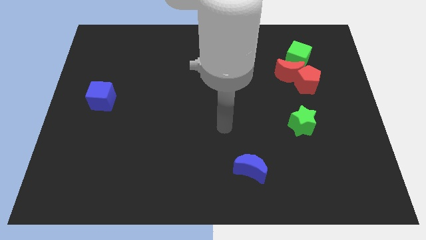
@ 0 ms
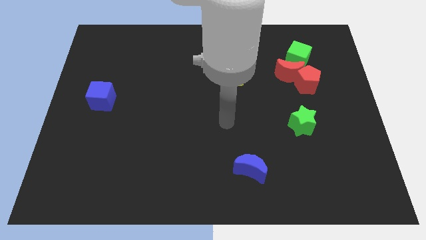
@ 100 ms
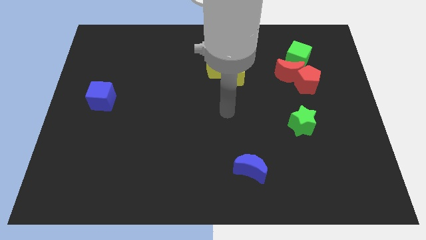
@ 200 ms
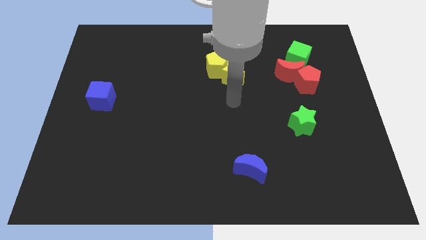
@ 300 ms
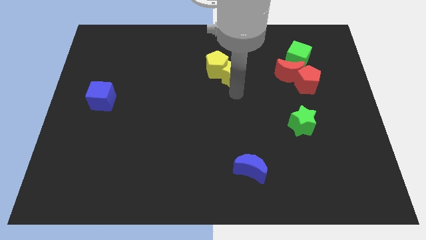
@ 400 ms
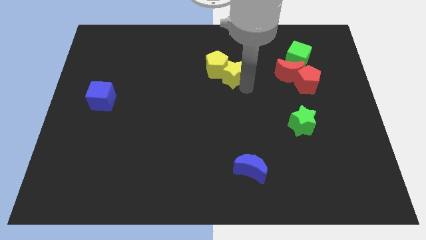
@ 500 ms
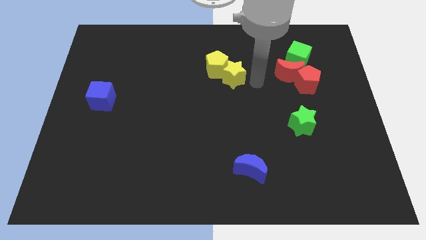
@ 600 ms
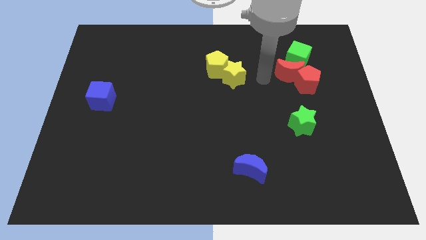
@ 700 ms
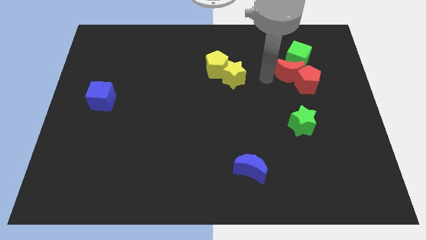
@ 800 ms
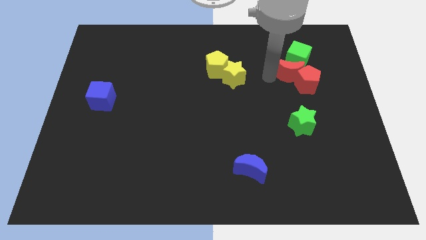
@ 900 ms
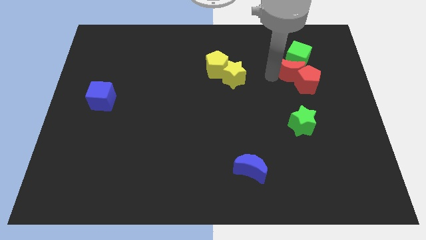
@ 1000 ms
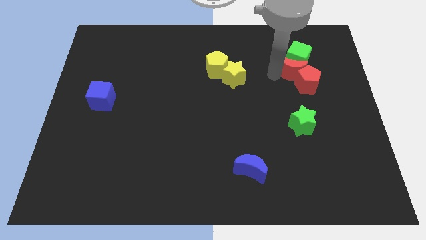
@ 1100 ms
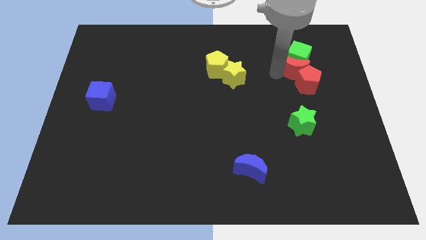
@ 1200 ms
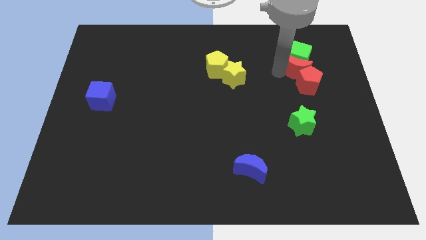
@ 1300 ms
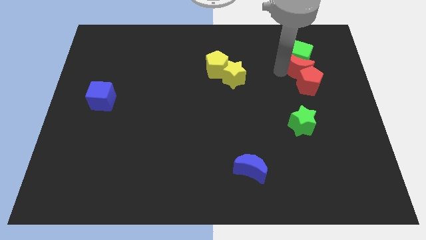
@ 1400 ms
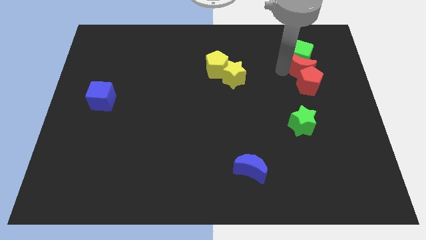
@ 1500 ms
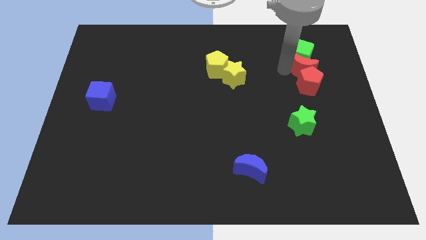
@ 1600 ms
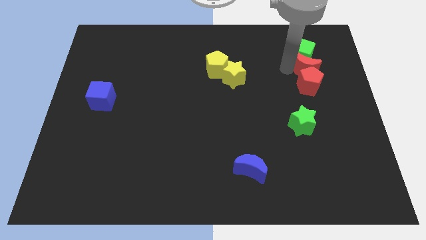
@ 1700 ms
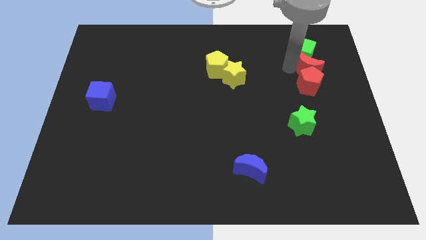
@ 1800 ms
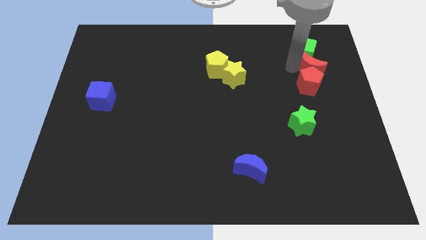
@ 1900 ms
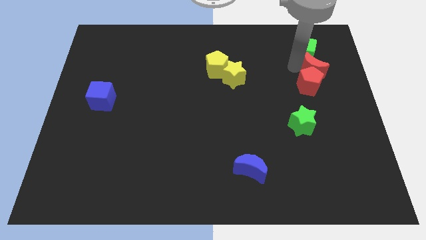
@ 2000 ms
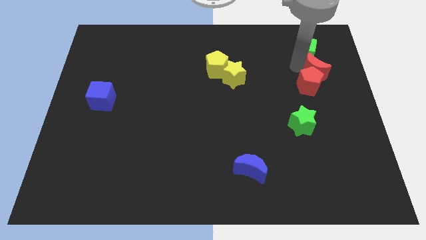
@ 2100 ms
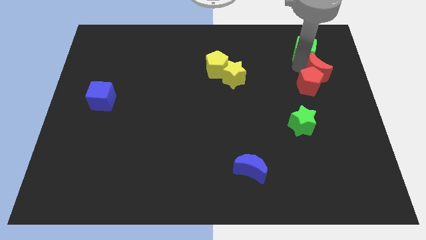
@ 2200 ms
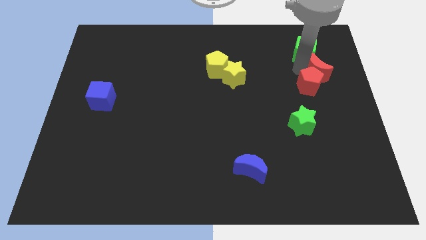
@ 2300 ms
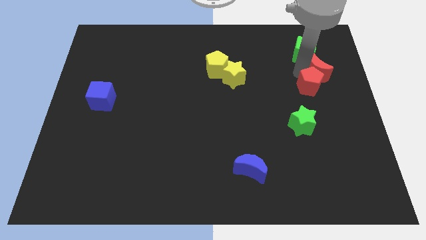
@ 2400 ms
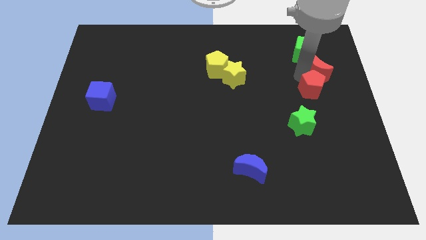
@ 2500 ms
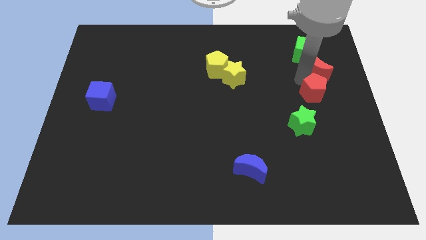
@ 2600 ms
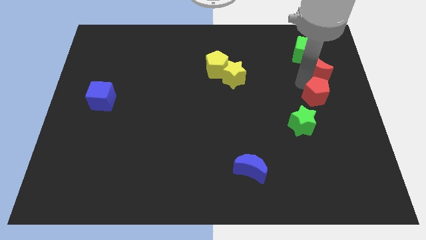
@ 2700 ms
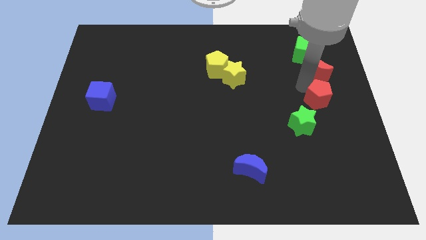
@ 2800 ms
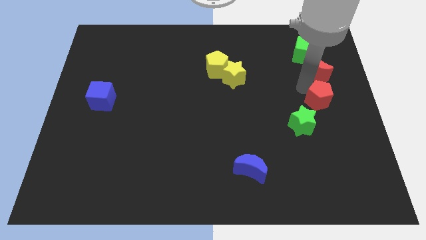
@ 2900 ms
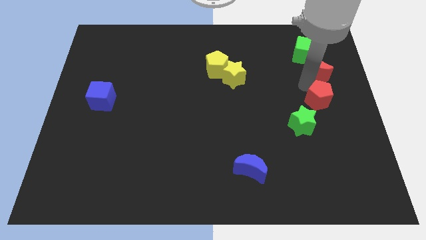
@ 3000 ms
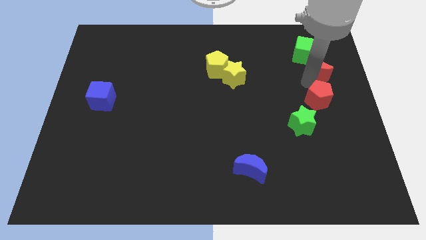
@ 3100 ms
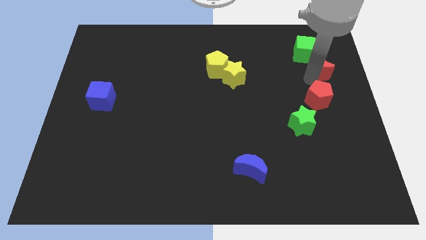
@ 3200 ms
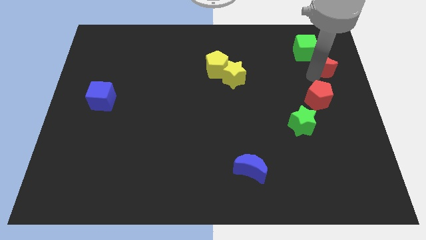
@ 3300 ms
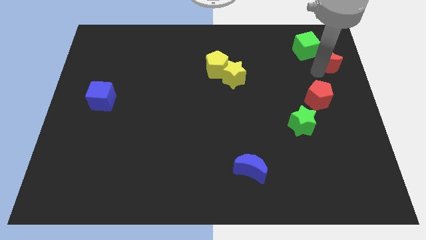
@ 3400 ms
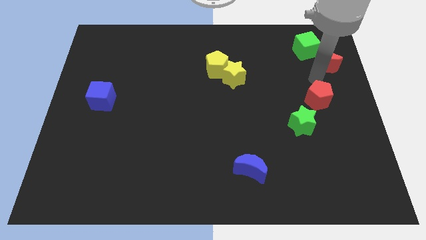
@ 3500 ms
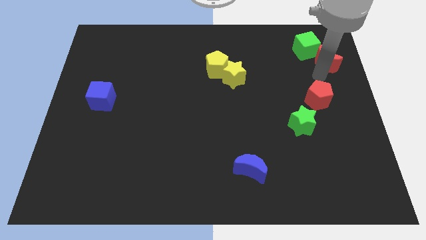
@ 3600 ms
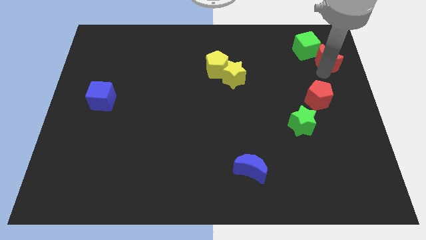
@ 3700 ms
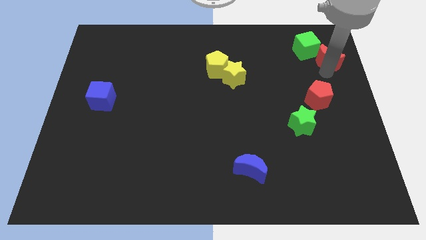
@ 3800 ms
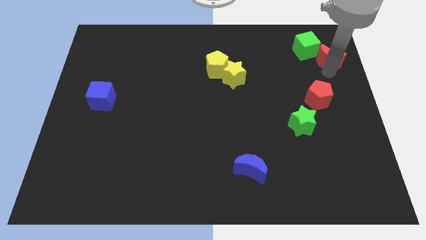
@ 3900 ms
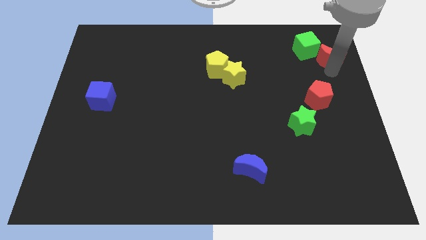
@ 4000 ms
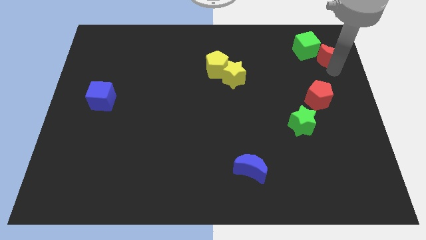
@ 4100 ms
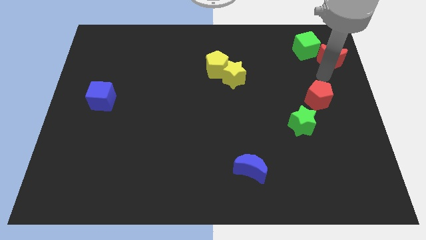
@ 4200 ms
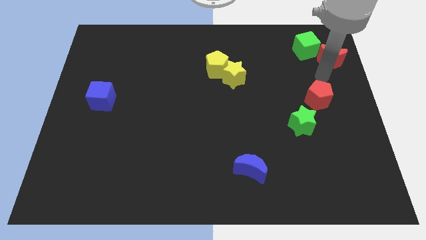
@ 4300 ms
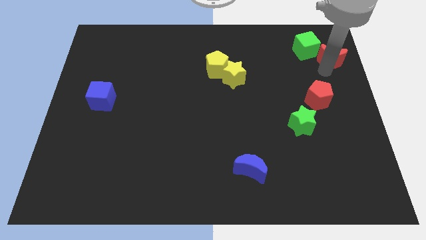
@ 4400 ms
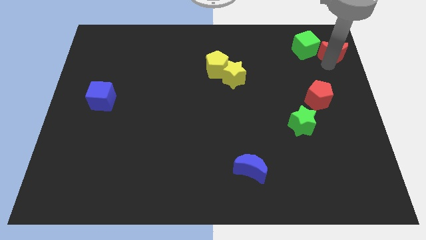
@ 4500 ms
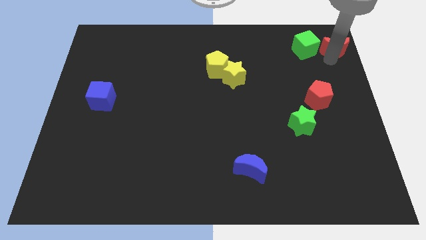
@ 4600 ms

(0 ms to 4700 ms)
put the red moon to the top right of the board

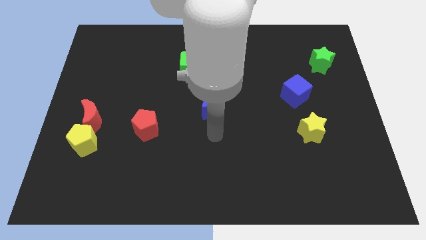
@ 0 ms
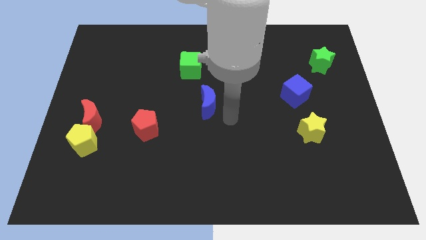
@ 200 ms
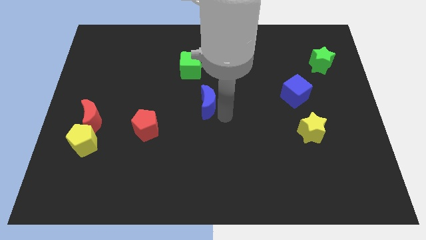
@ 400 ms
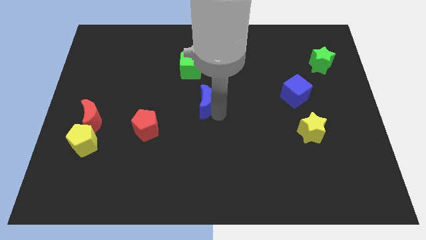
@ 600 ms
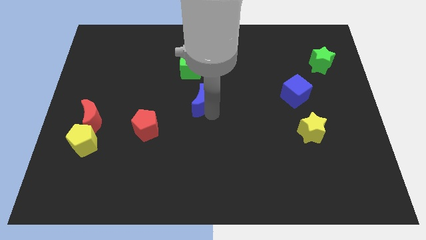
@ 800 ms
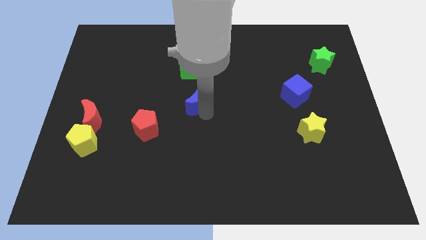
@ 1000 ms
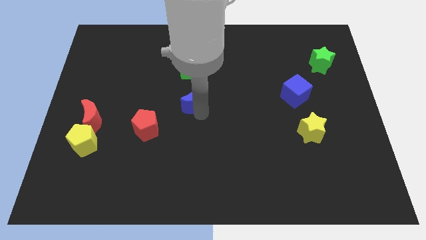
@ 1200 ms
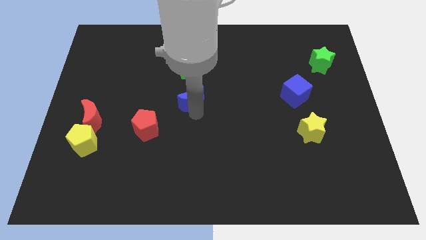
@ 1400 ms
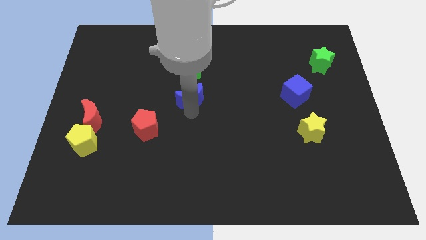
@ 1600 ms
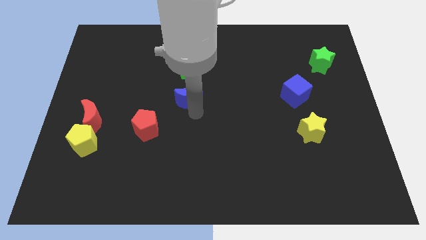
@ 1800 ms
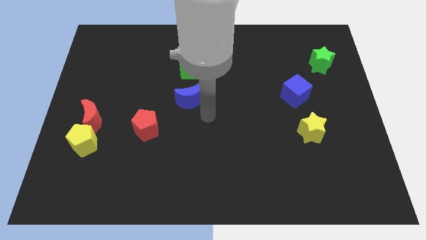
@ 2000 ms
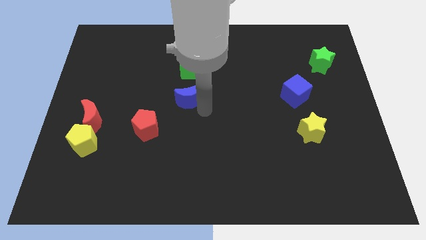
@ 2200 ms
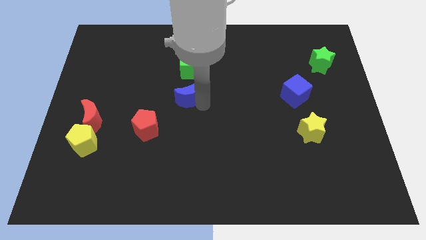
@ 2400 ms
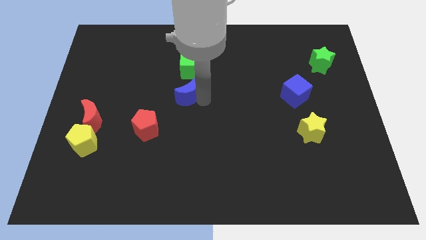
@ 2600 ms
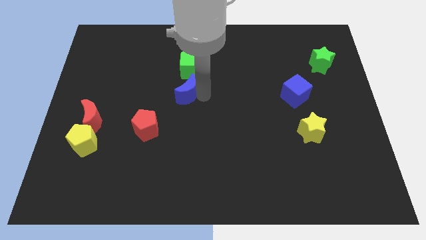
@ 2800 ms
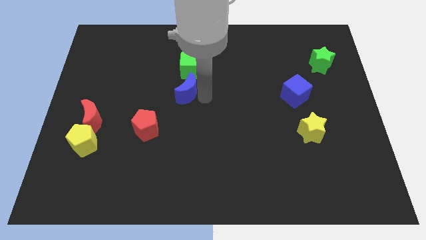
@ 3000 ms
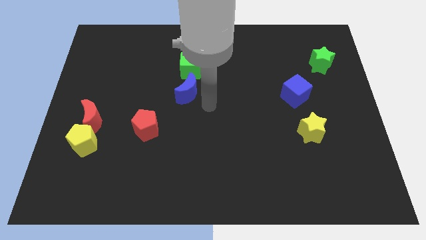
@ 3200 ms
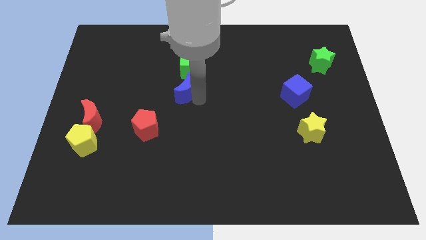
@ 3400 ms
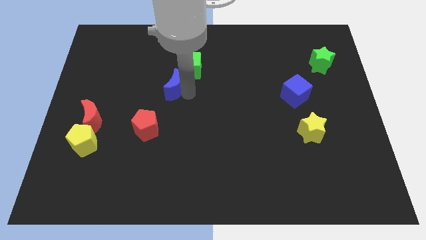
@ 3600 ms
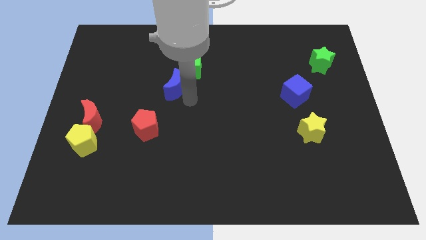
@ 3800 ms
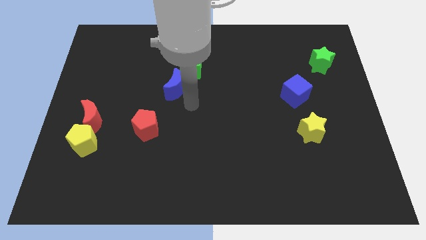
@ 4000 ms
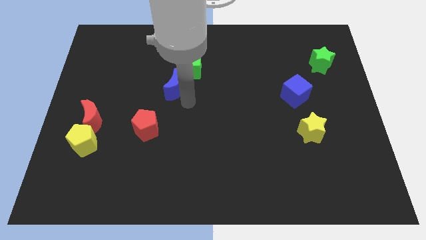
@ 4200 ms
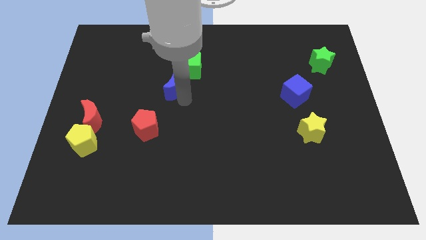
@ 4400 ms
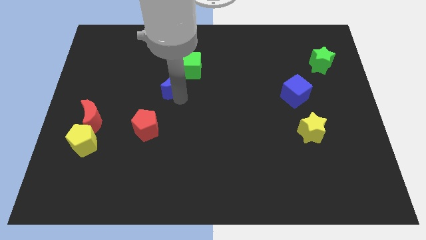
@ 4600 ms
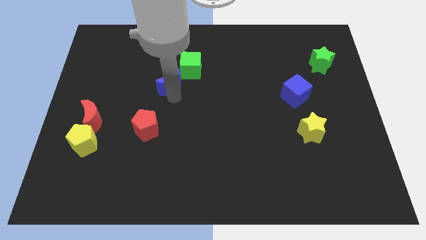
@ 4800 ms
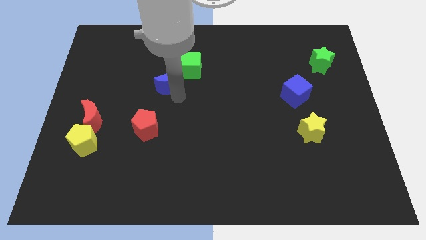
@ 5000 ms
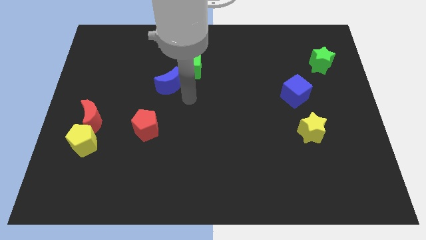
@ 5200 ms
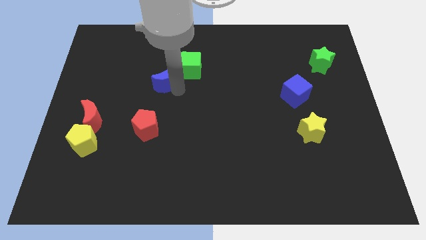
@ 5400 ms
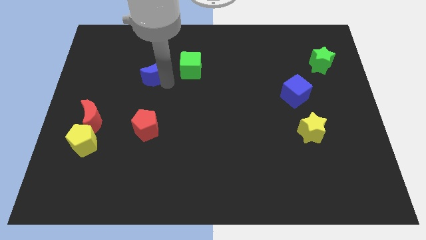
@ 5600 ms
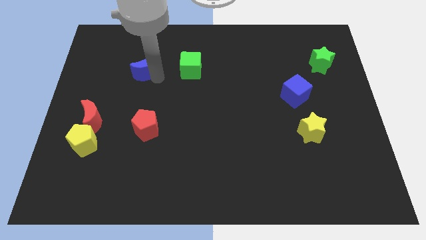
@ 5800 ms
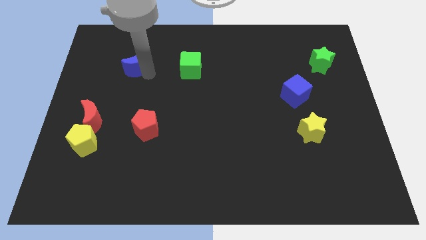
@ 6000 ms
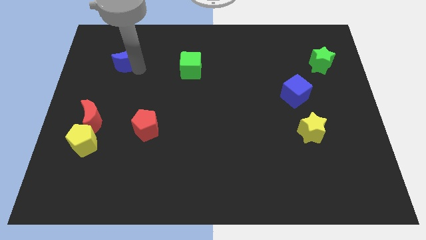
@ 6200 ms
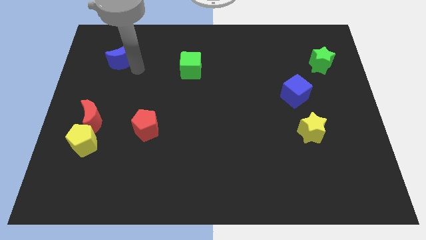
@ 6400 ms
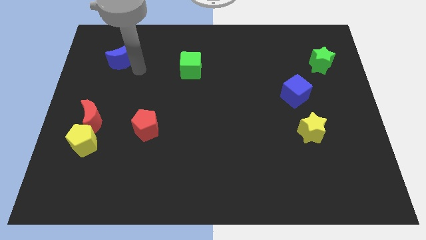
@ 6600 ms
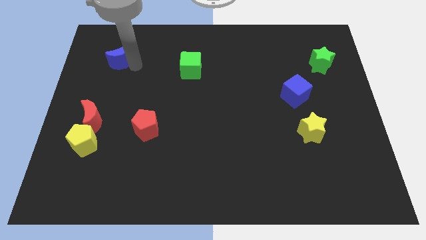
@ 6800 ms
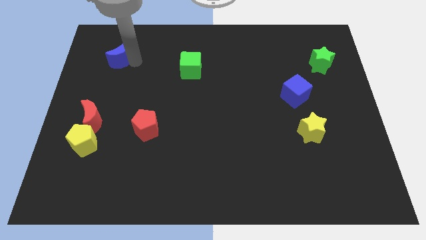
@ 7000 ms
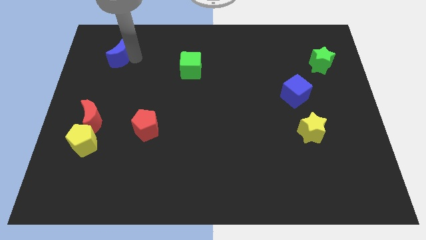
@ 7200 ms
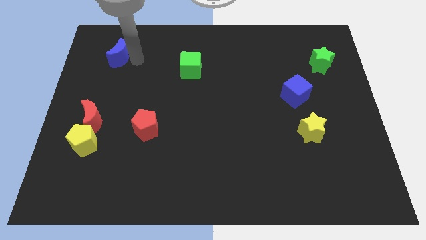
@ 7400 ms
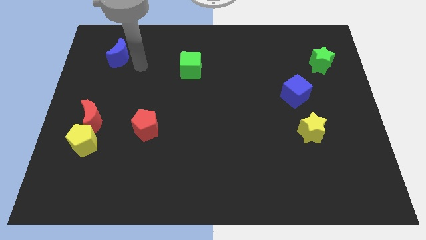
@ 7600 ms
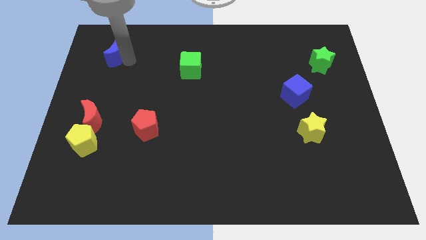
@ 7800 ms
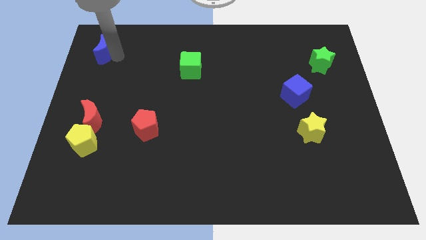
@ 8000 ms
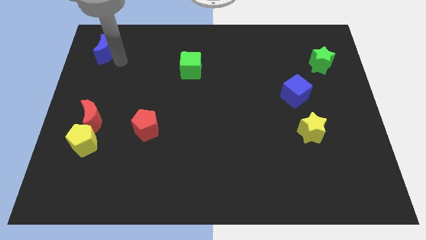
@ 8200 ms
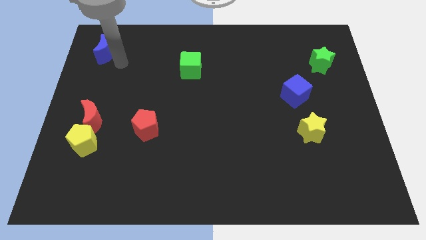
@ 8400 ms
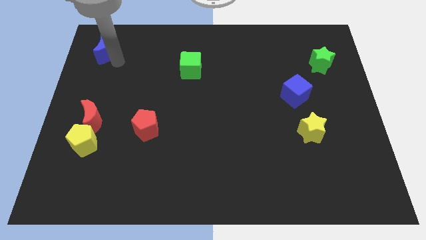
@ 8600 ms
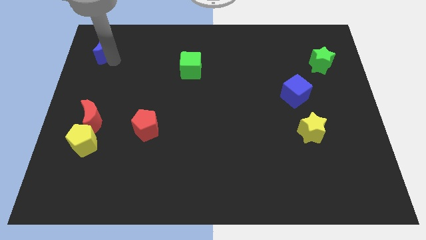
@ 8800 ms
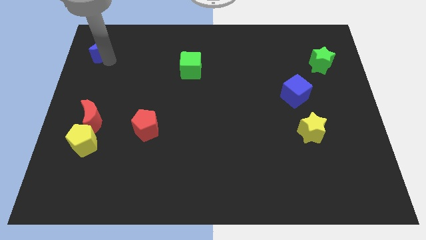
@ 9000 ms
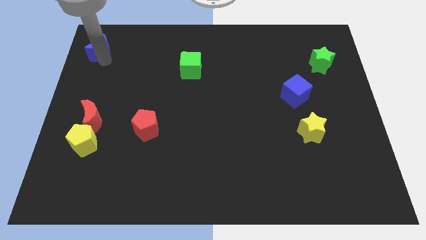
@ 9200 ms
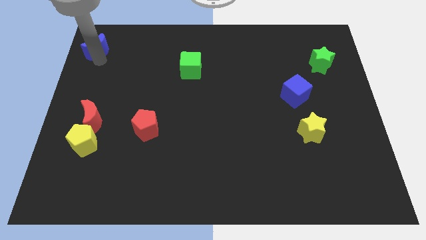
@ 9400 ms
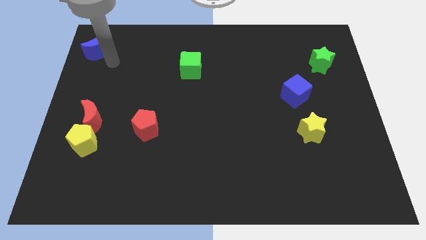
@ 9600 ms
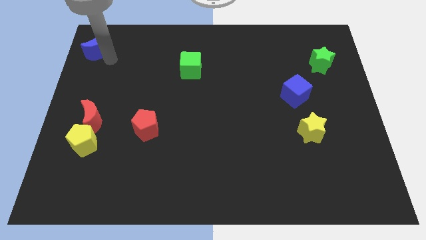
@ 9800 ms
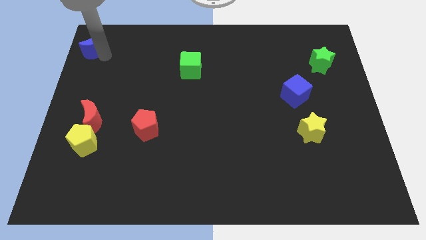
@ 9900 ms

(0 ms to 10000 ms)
push the blue moon to the upper left corner
